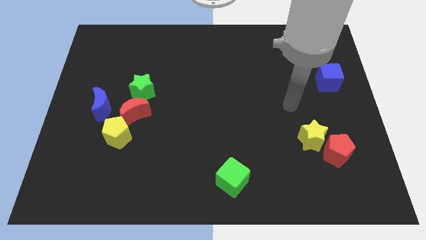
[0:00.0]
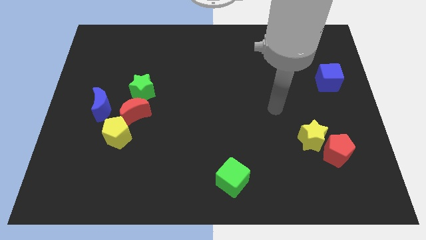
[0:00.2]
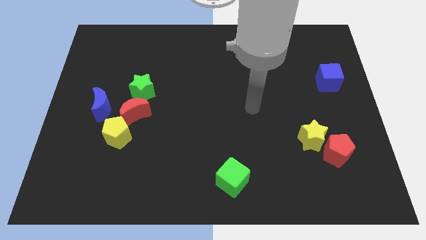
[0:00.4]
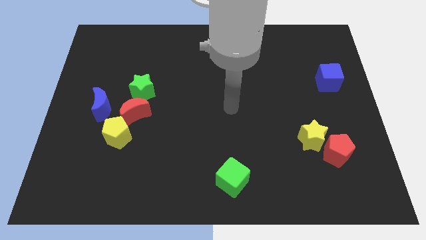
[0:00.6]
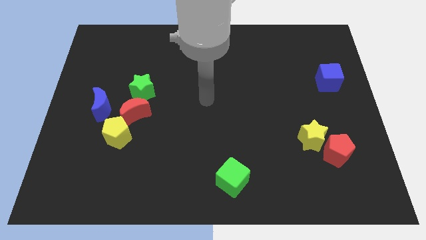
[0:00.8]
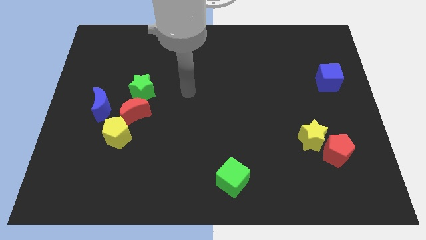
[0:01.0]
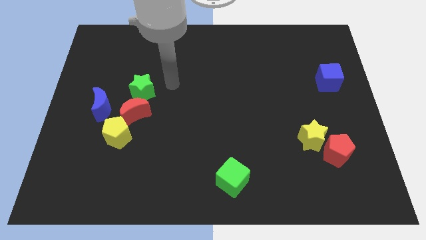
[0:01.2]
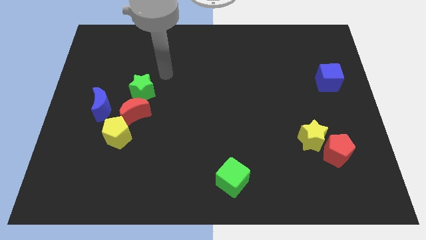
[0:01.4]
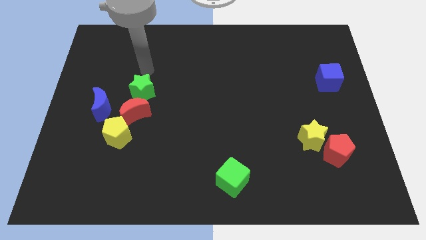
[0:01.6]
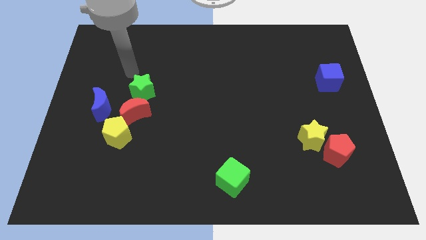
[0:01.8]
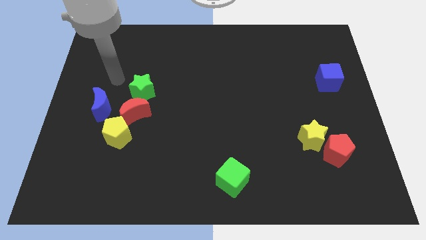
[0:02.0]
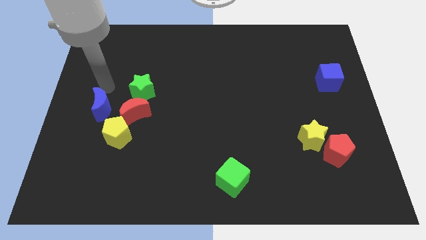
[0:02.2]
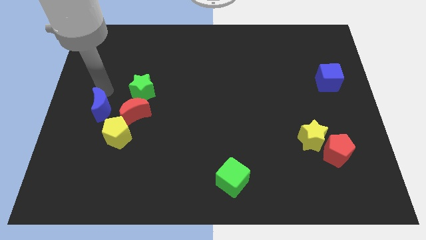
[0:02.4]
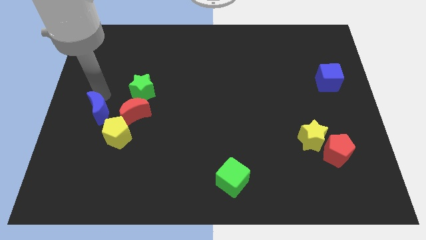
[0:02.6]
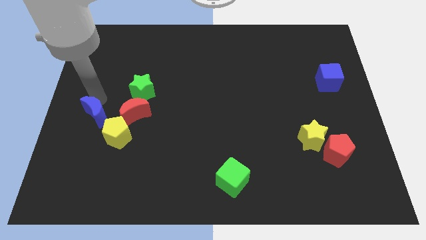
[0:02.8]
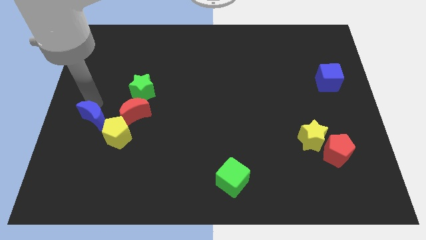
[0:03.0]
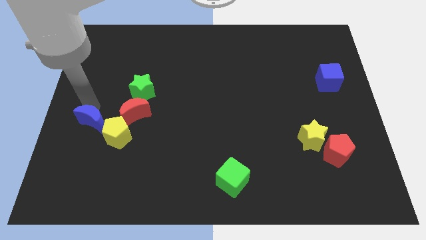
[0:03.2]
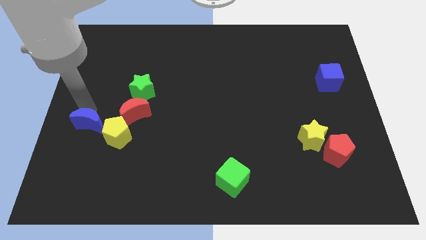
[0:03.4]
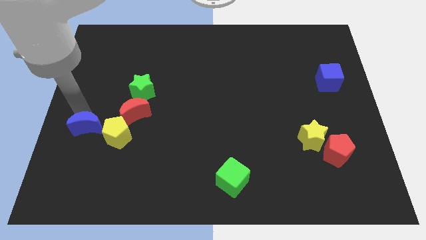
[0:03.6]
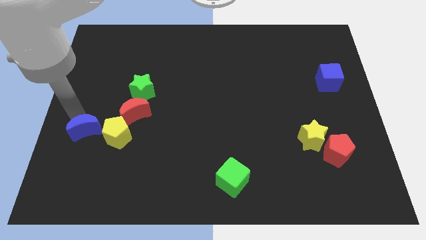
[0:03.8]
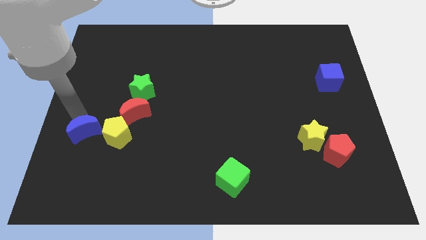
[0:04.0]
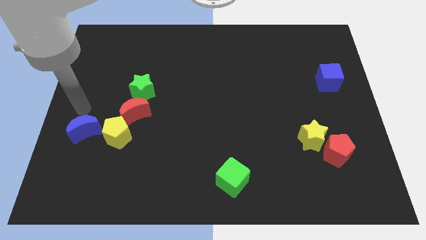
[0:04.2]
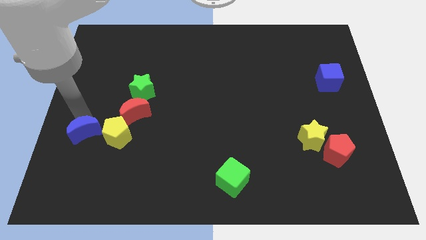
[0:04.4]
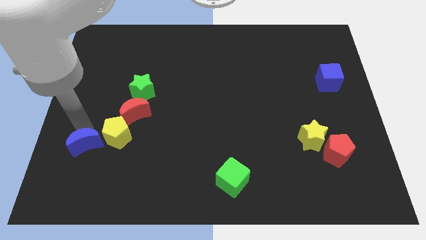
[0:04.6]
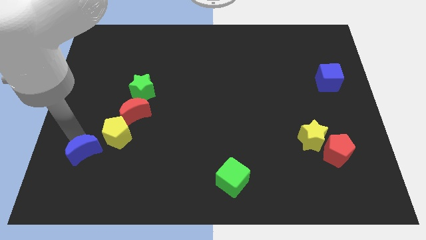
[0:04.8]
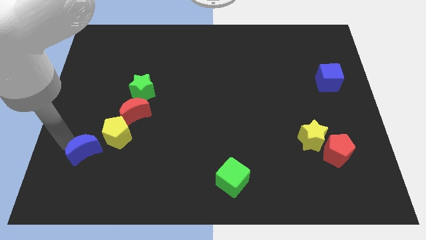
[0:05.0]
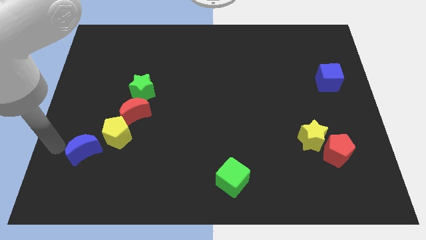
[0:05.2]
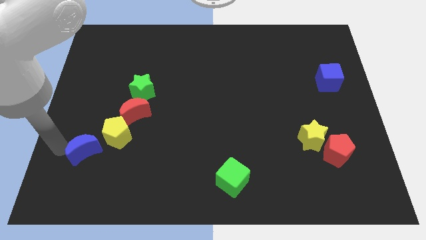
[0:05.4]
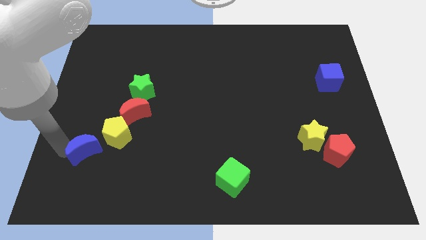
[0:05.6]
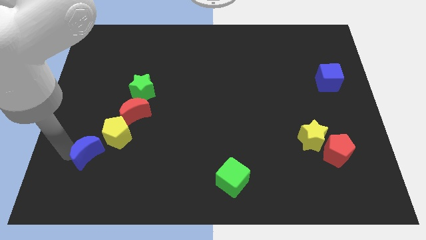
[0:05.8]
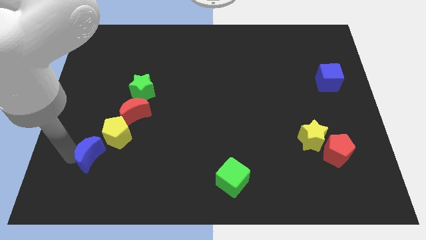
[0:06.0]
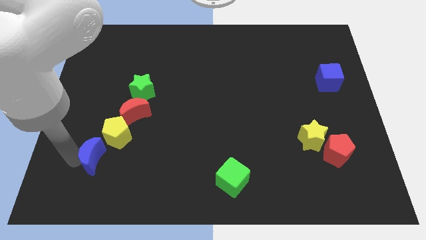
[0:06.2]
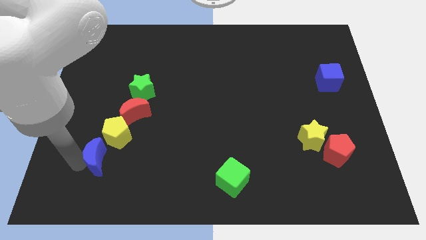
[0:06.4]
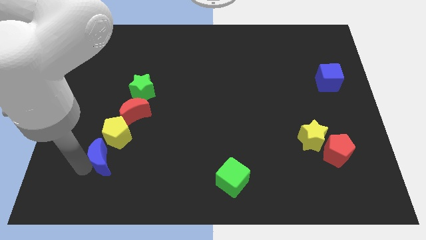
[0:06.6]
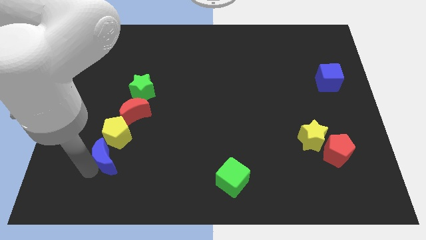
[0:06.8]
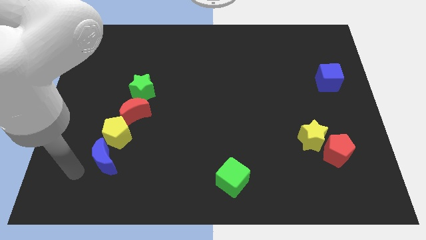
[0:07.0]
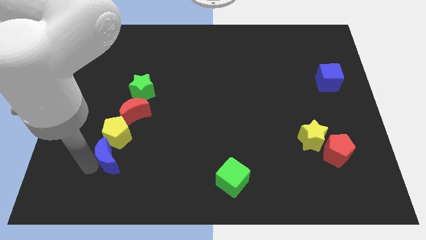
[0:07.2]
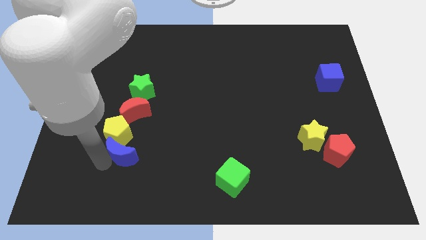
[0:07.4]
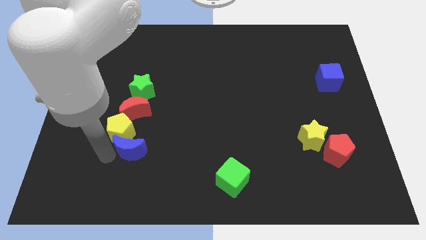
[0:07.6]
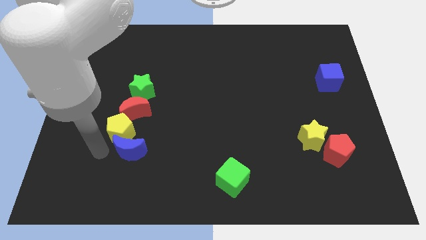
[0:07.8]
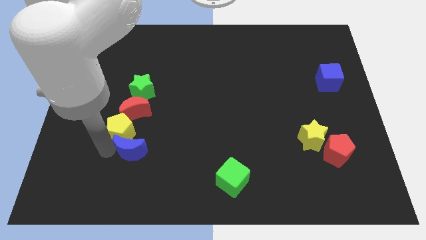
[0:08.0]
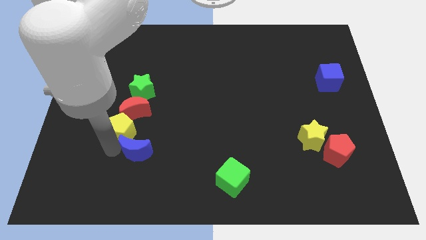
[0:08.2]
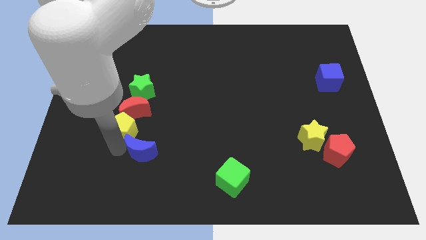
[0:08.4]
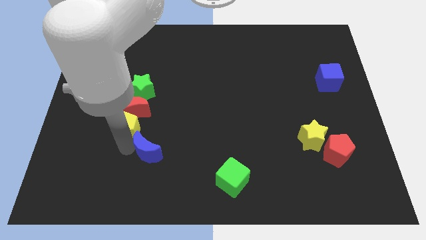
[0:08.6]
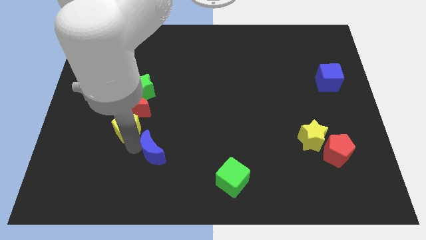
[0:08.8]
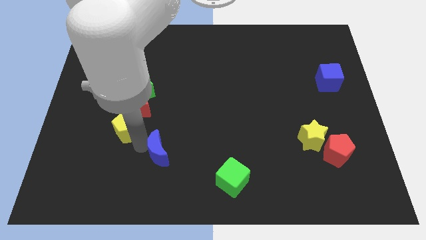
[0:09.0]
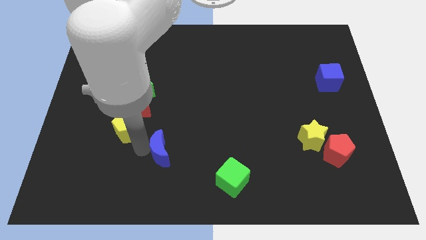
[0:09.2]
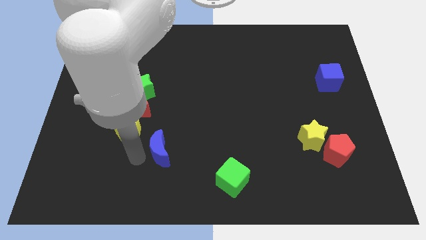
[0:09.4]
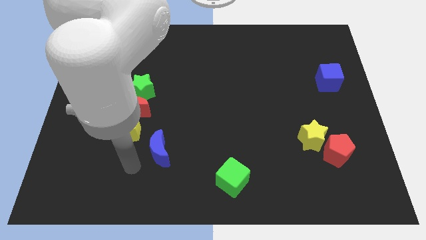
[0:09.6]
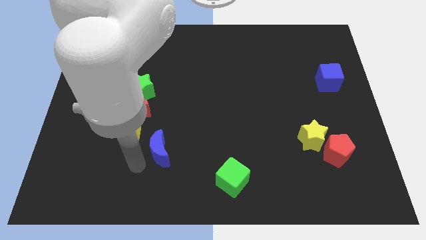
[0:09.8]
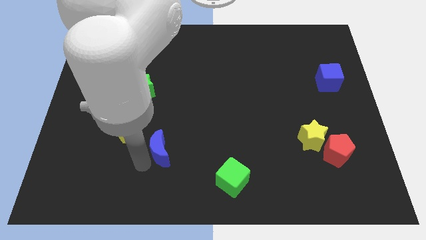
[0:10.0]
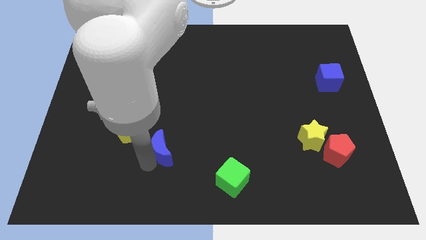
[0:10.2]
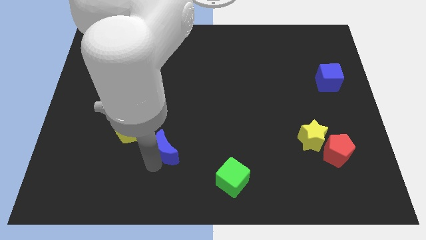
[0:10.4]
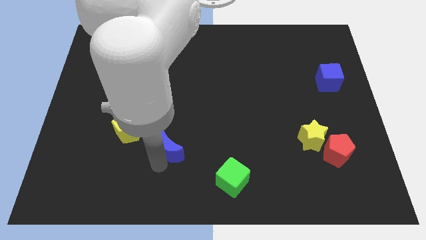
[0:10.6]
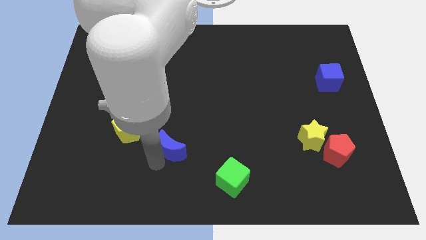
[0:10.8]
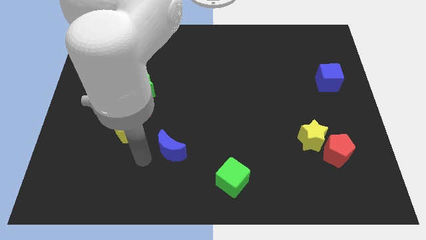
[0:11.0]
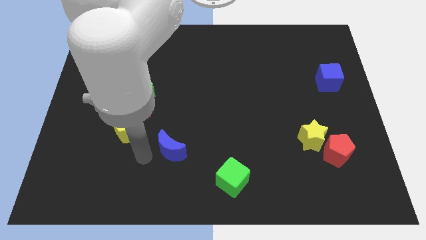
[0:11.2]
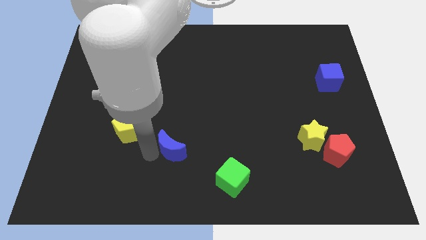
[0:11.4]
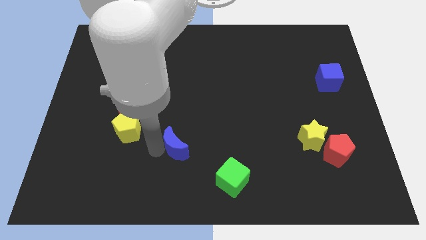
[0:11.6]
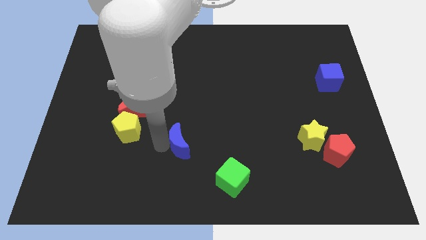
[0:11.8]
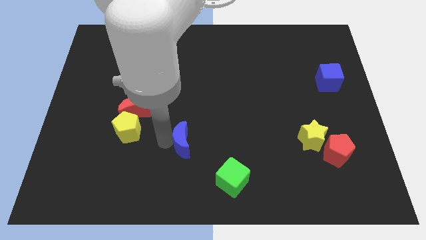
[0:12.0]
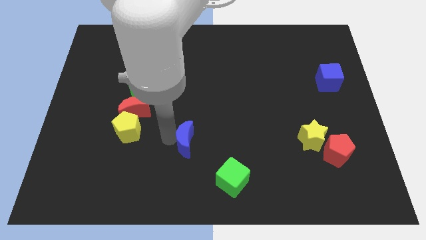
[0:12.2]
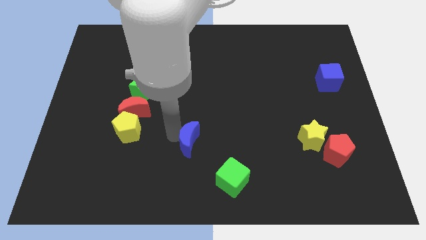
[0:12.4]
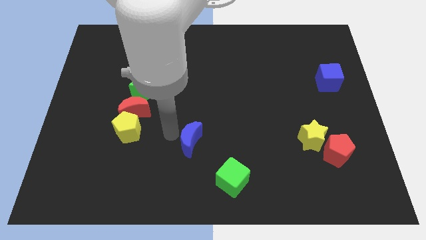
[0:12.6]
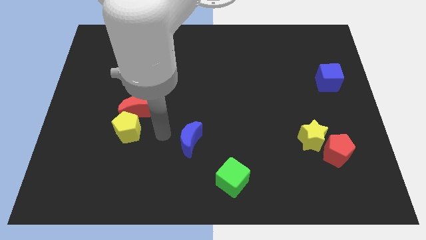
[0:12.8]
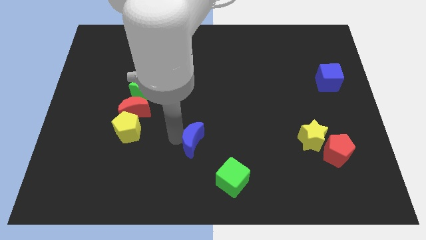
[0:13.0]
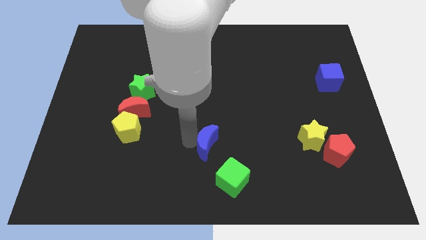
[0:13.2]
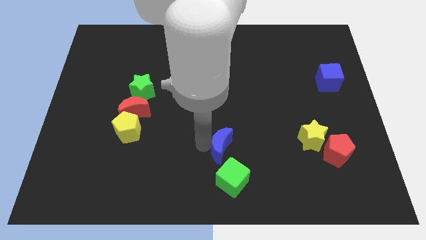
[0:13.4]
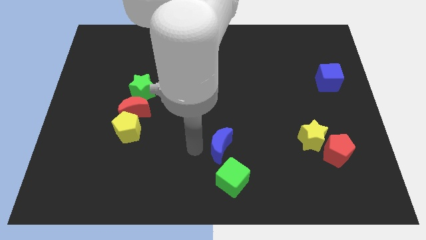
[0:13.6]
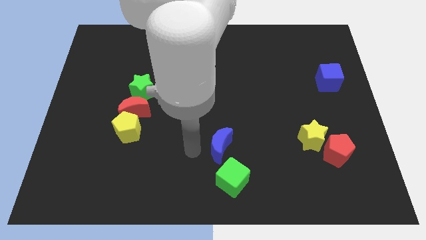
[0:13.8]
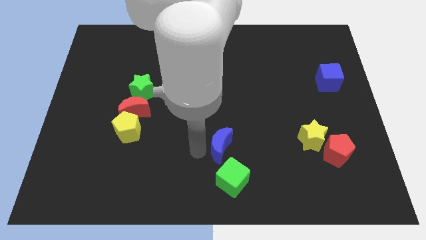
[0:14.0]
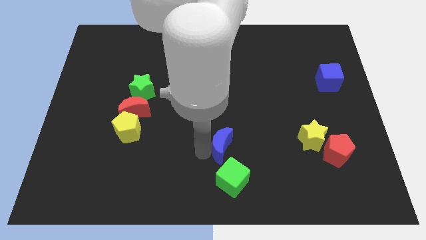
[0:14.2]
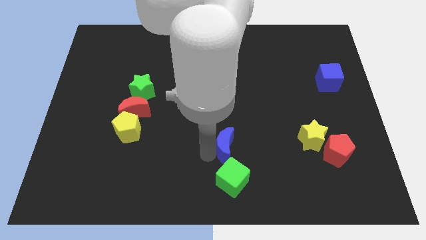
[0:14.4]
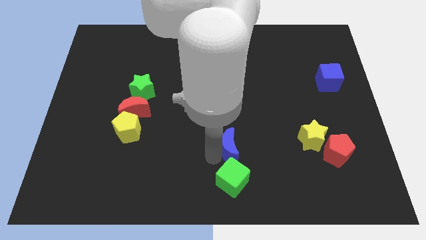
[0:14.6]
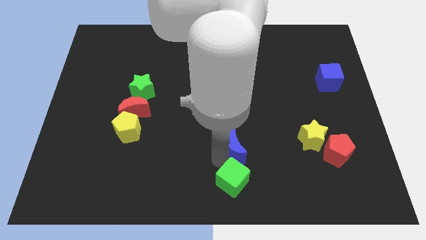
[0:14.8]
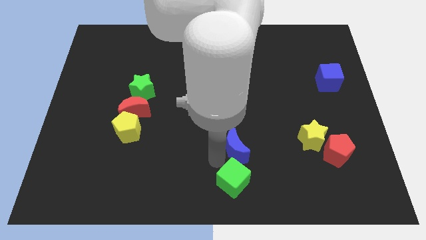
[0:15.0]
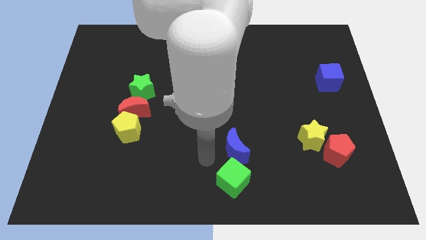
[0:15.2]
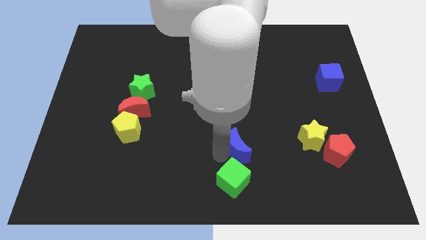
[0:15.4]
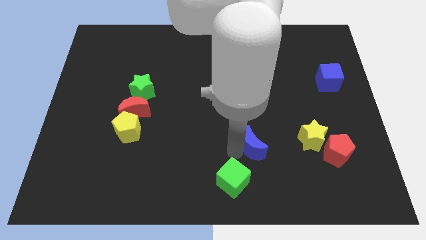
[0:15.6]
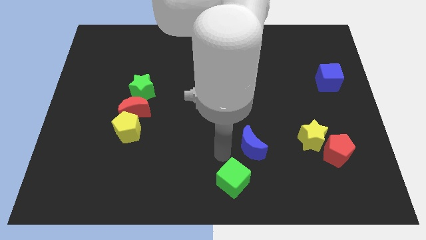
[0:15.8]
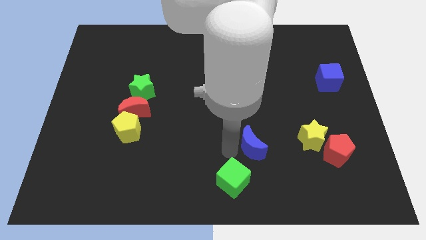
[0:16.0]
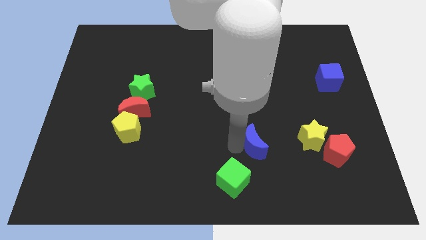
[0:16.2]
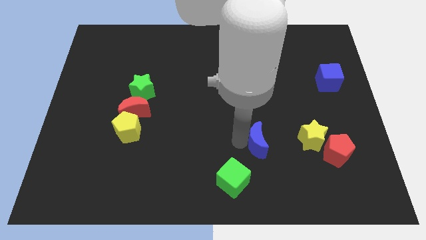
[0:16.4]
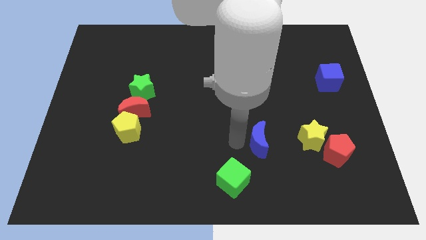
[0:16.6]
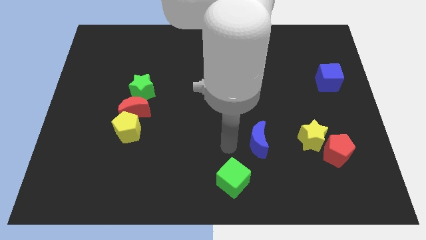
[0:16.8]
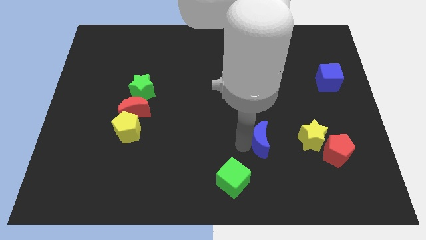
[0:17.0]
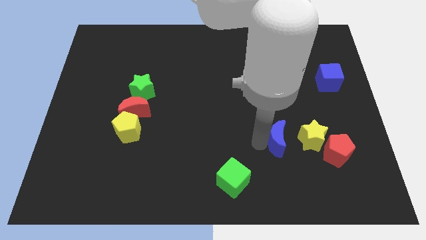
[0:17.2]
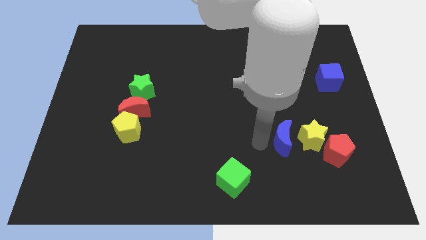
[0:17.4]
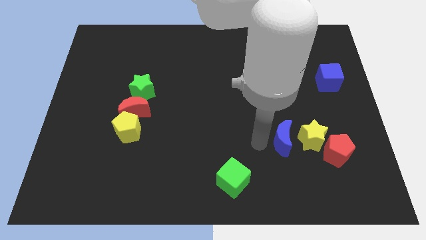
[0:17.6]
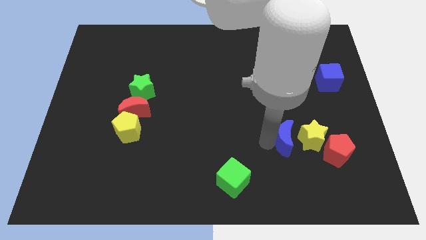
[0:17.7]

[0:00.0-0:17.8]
move the blue moon close to the yellow star
